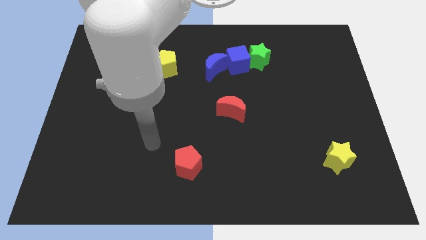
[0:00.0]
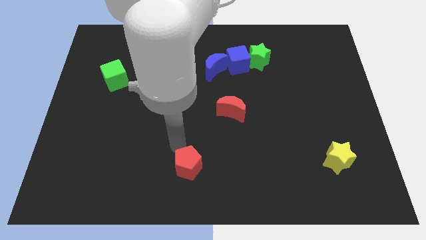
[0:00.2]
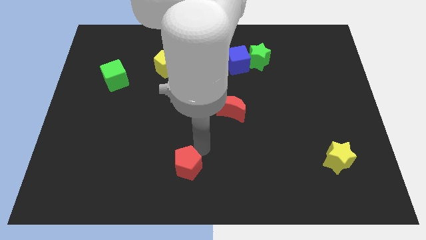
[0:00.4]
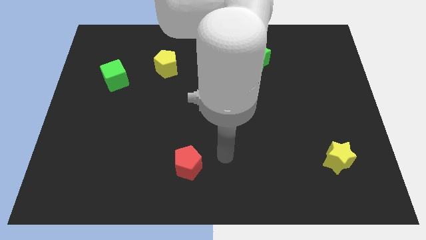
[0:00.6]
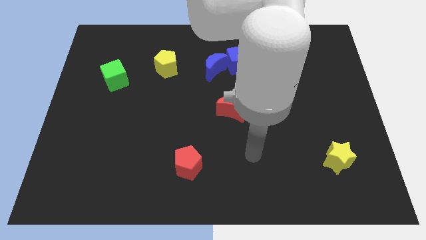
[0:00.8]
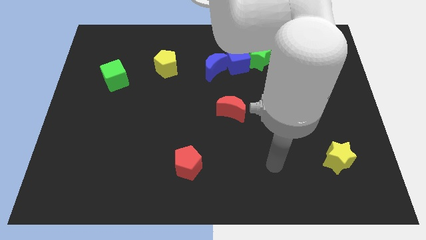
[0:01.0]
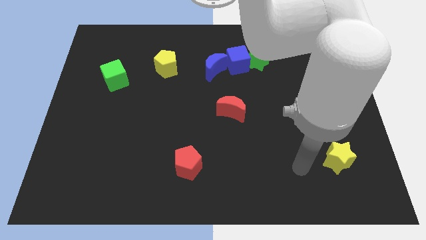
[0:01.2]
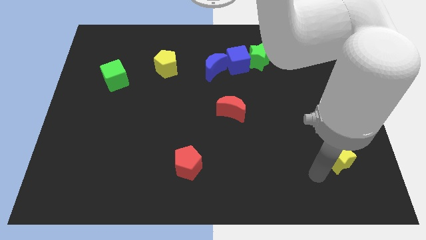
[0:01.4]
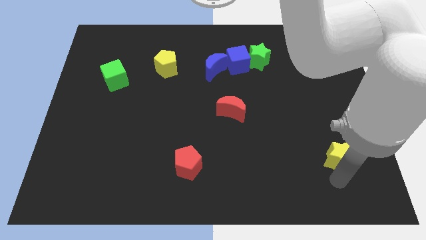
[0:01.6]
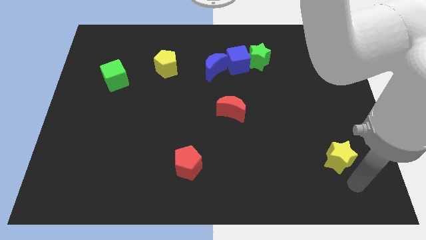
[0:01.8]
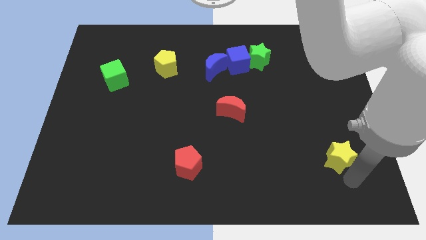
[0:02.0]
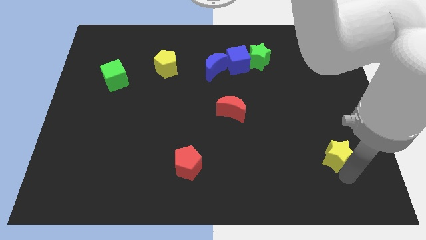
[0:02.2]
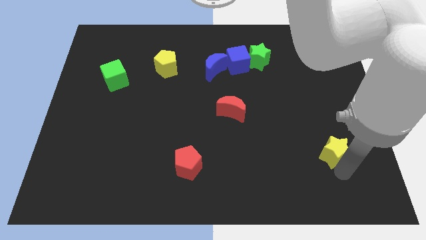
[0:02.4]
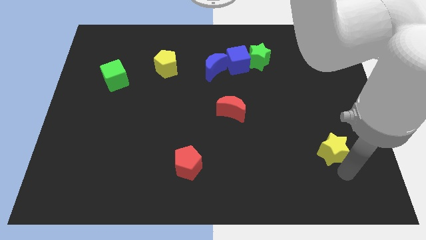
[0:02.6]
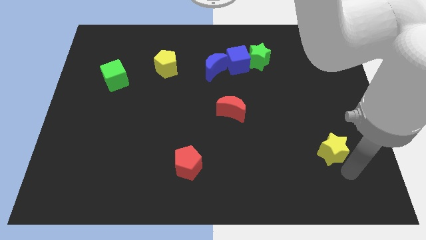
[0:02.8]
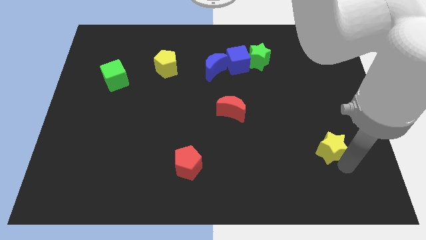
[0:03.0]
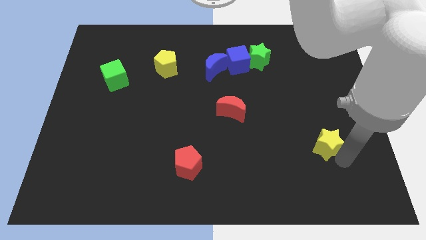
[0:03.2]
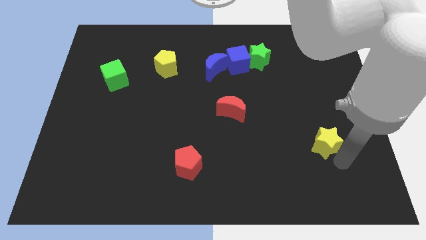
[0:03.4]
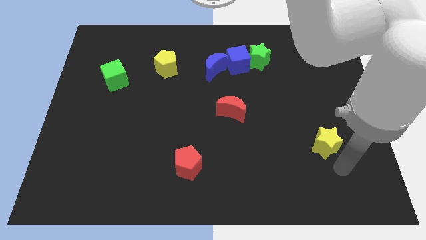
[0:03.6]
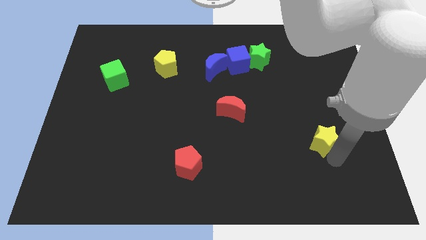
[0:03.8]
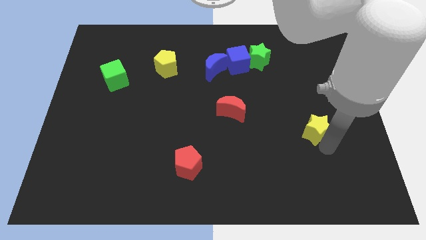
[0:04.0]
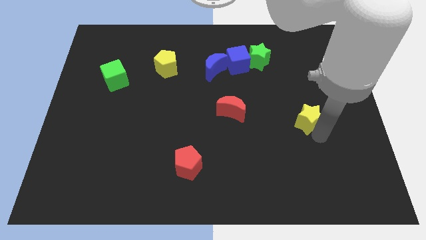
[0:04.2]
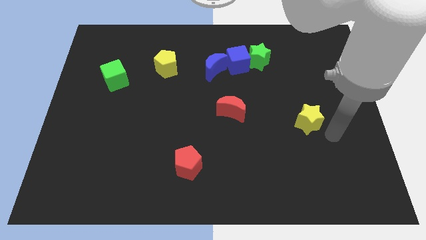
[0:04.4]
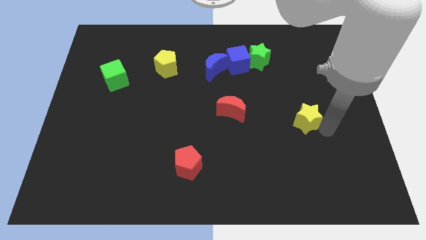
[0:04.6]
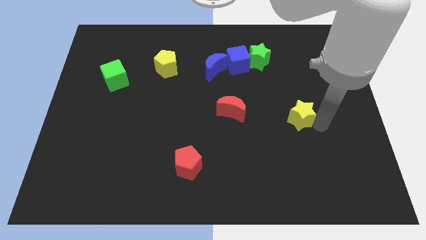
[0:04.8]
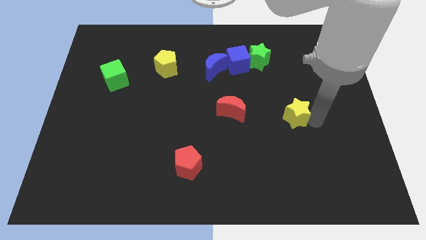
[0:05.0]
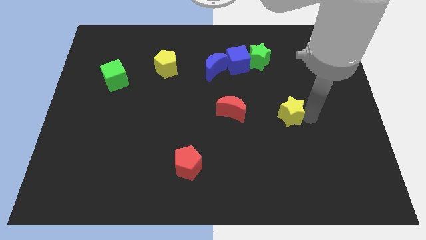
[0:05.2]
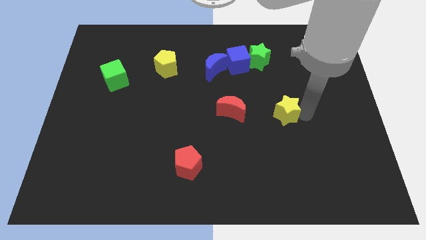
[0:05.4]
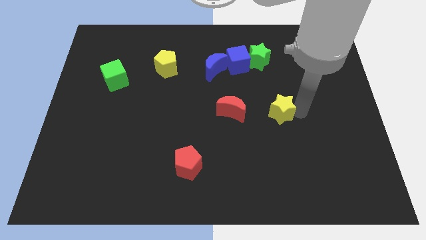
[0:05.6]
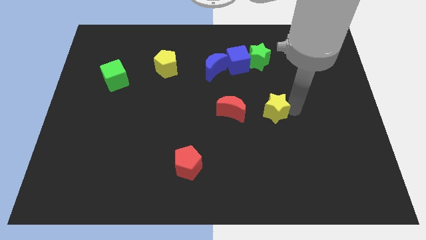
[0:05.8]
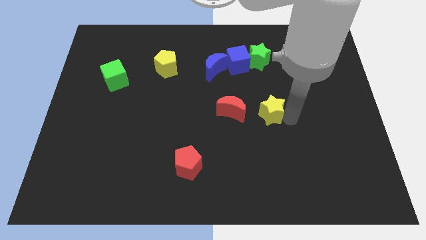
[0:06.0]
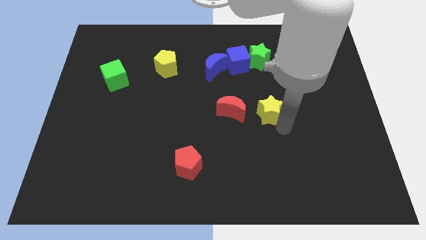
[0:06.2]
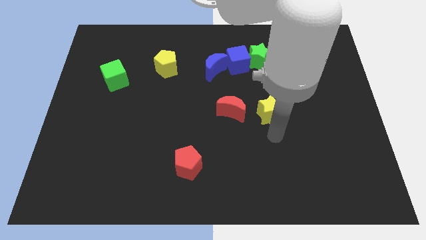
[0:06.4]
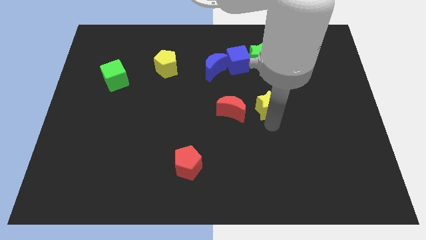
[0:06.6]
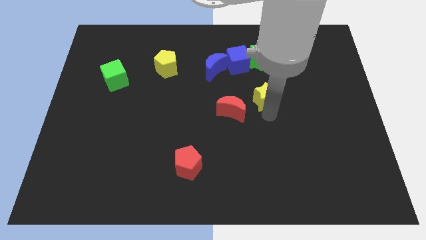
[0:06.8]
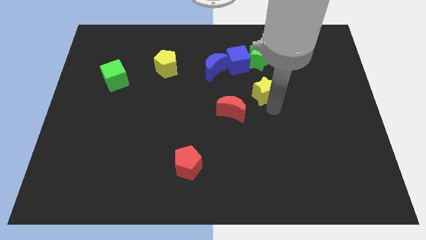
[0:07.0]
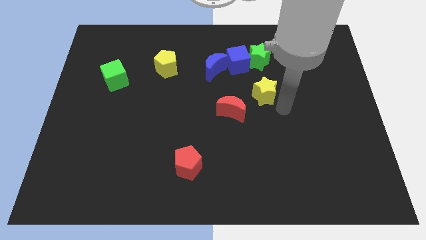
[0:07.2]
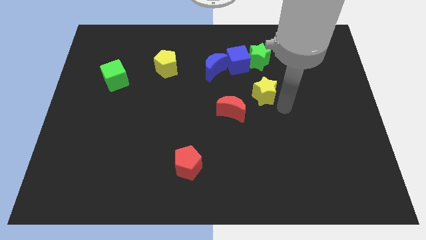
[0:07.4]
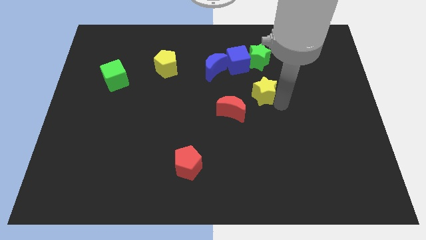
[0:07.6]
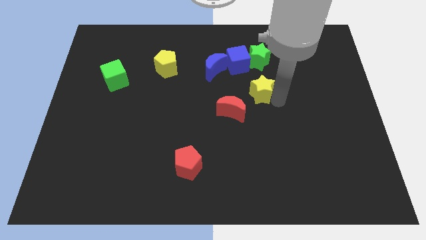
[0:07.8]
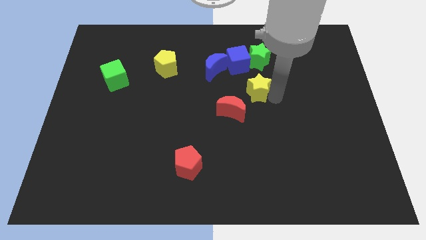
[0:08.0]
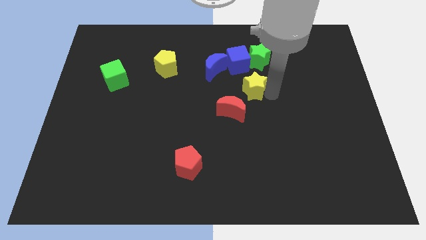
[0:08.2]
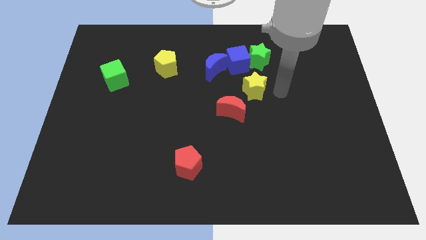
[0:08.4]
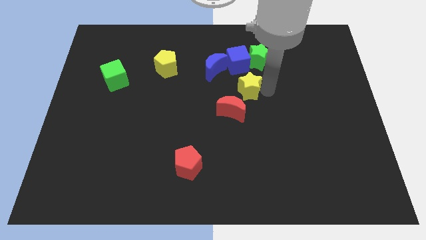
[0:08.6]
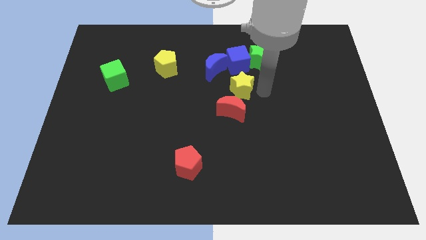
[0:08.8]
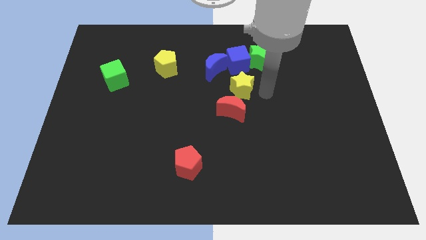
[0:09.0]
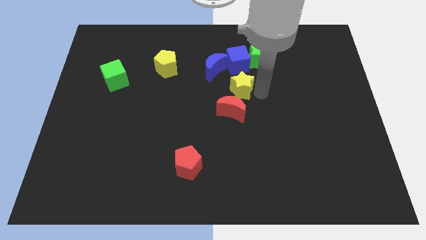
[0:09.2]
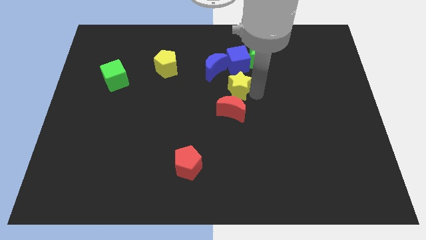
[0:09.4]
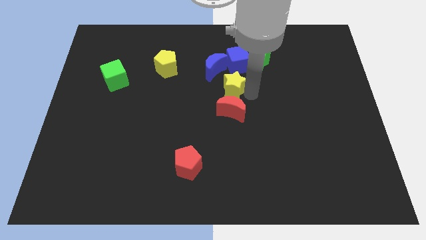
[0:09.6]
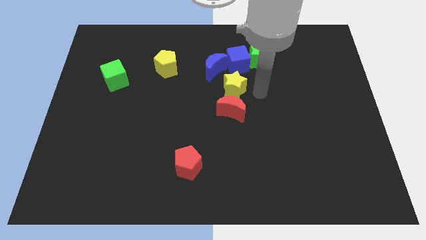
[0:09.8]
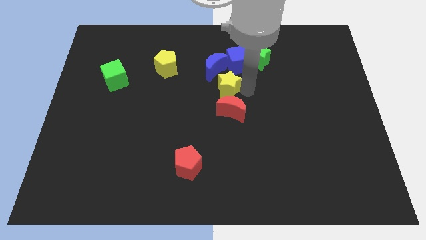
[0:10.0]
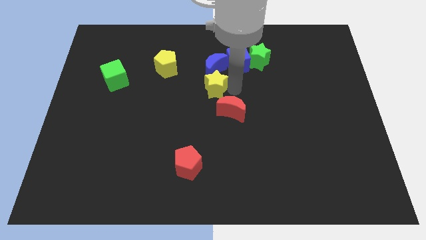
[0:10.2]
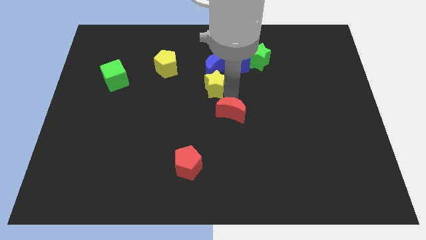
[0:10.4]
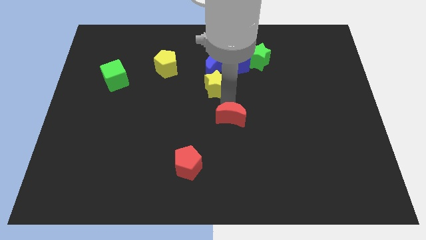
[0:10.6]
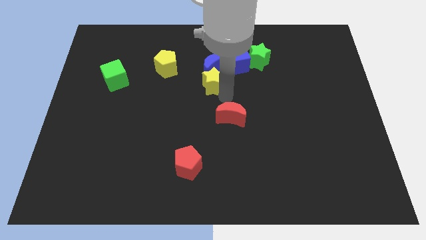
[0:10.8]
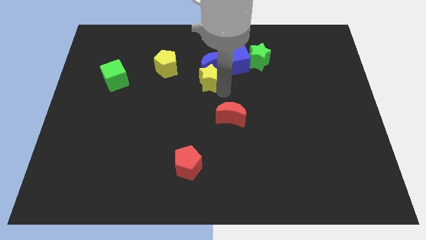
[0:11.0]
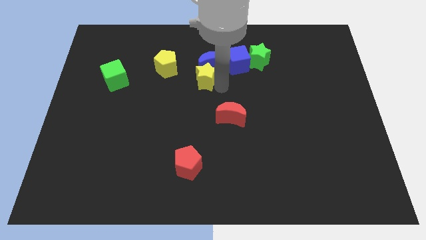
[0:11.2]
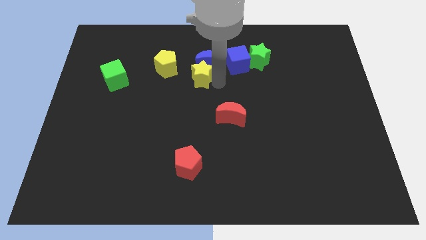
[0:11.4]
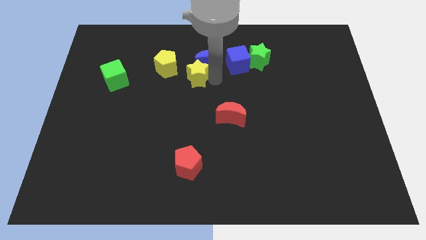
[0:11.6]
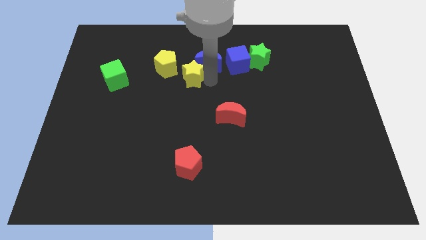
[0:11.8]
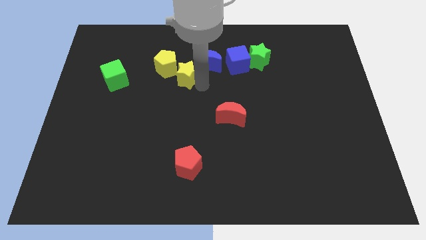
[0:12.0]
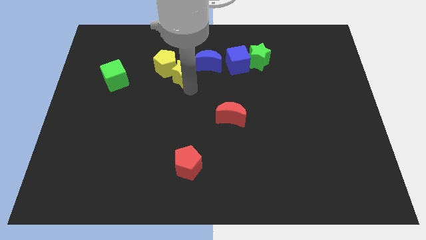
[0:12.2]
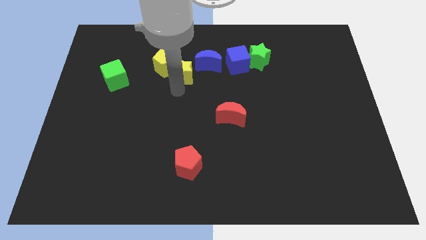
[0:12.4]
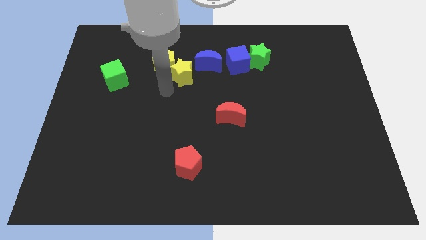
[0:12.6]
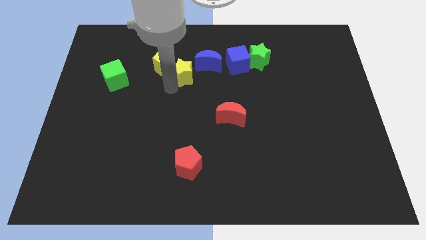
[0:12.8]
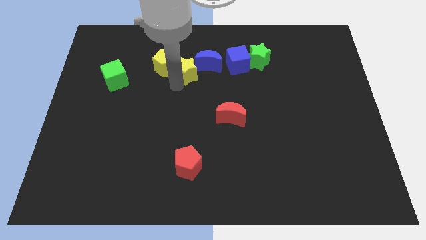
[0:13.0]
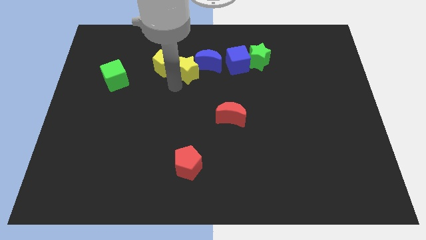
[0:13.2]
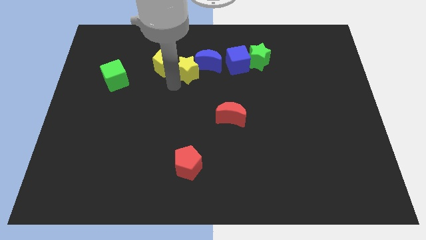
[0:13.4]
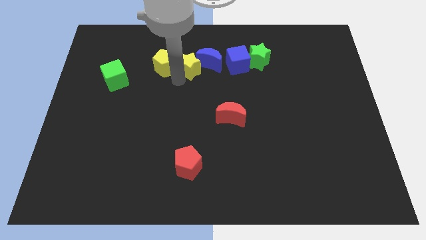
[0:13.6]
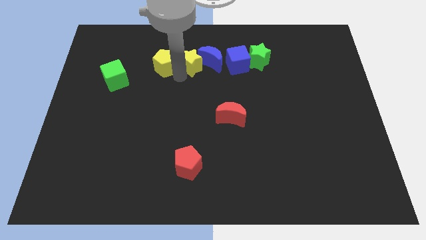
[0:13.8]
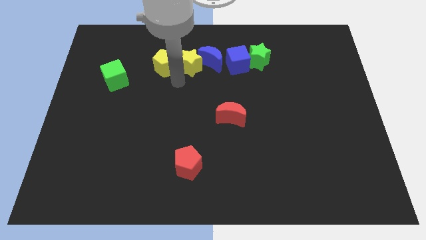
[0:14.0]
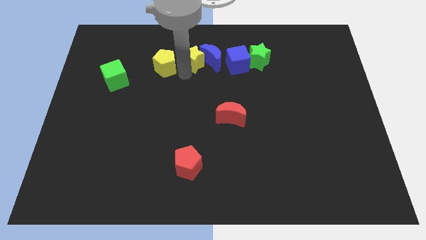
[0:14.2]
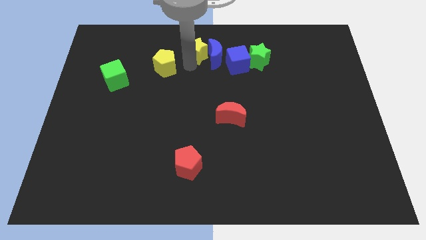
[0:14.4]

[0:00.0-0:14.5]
push the yellow star to the top side
